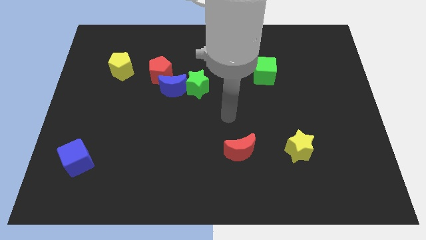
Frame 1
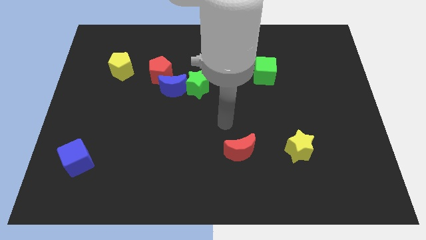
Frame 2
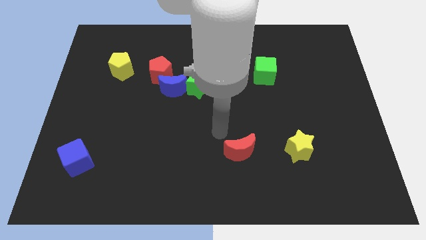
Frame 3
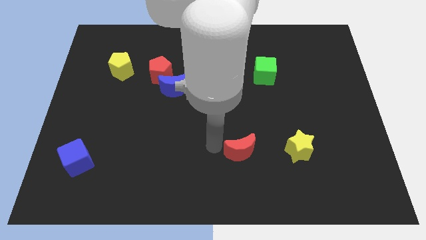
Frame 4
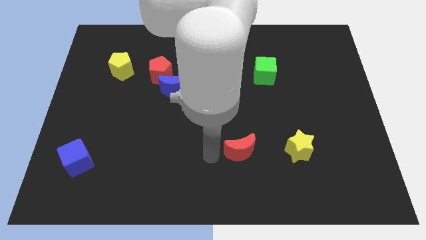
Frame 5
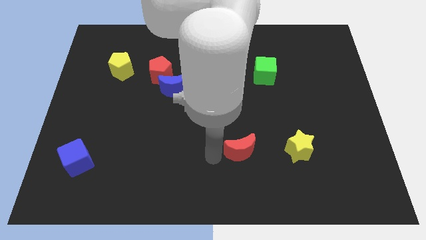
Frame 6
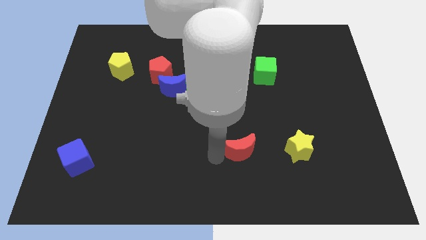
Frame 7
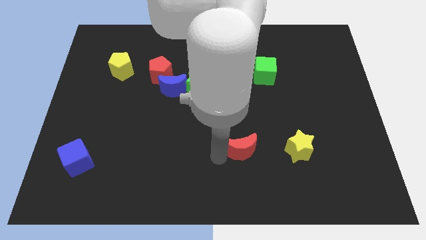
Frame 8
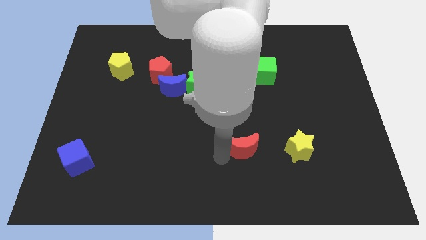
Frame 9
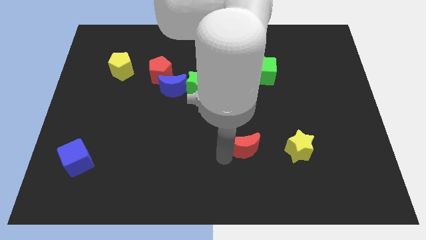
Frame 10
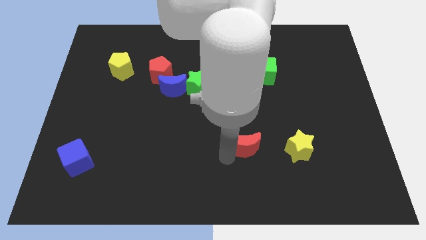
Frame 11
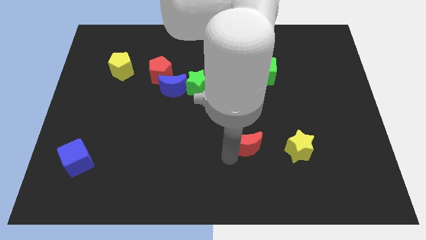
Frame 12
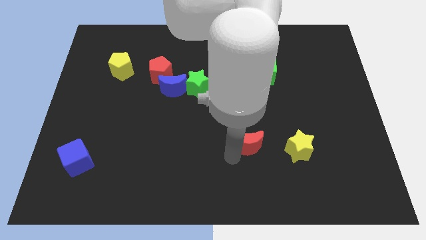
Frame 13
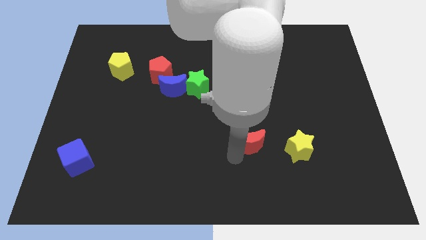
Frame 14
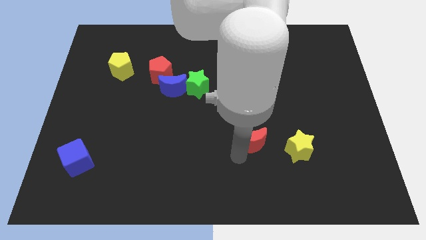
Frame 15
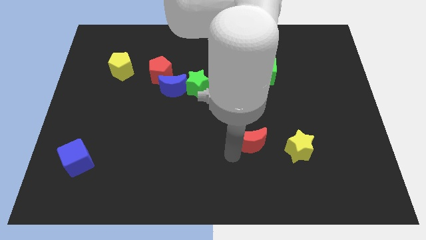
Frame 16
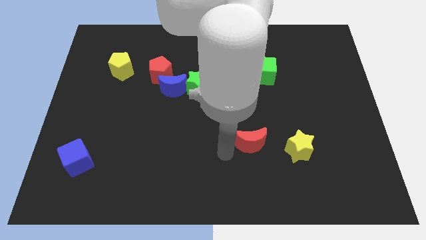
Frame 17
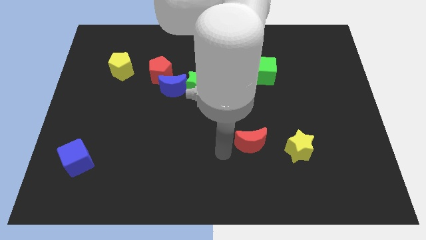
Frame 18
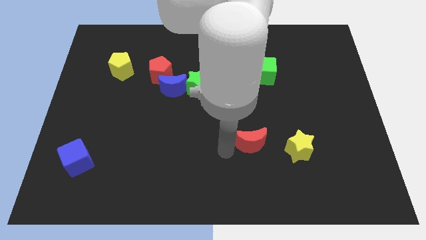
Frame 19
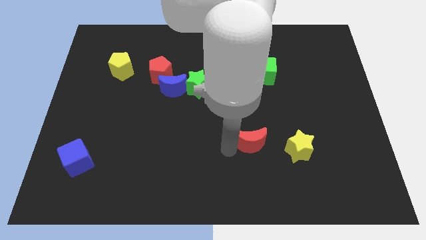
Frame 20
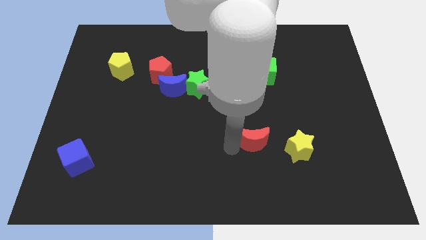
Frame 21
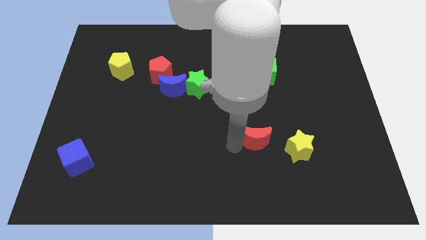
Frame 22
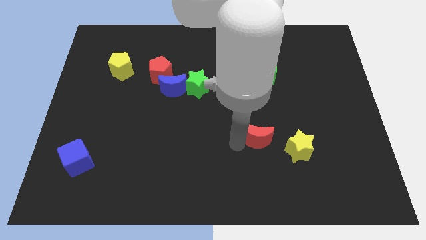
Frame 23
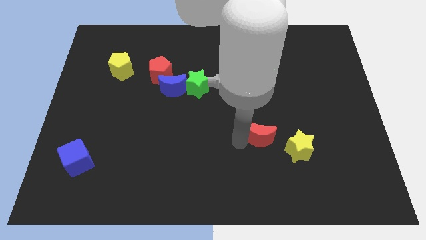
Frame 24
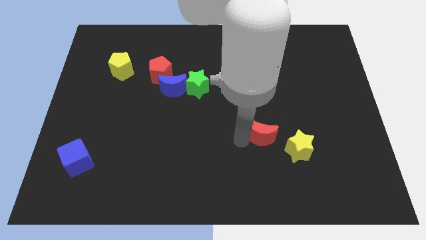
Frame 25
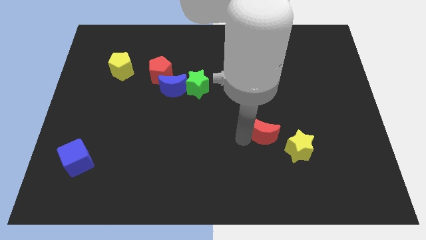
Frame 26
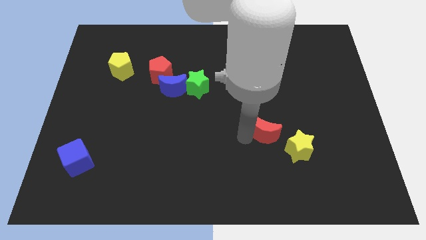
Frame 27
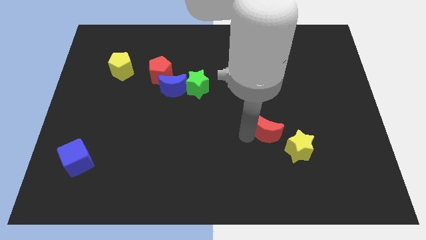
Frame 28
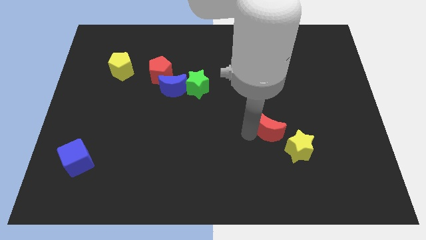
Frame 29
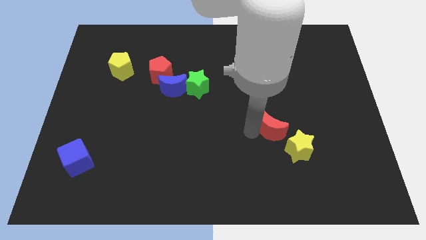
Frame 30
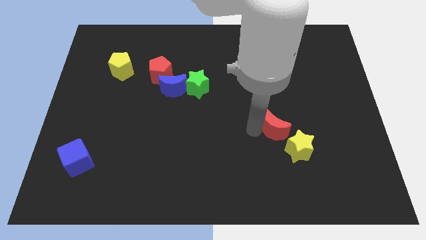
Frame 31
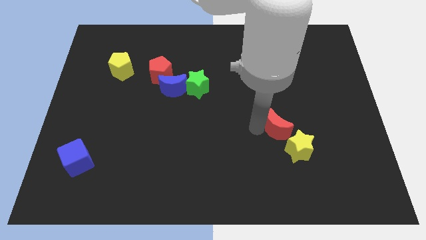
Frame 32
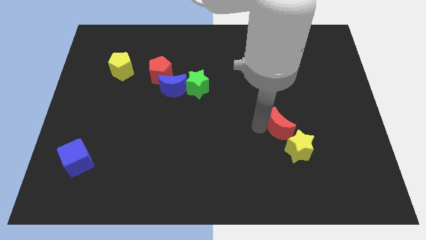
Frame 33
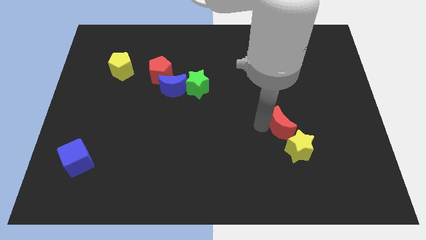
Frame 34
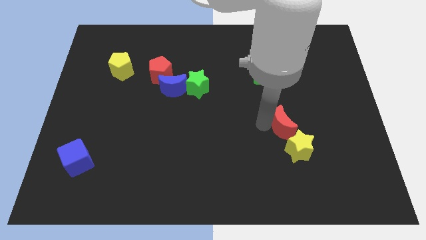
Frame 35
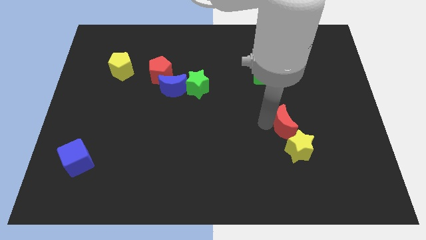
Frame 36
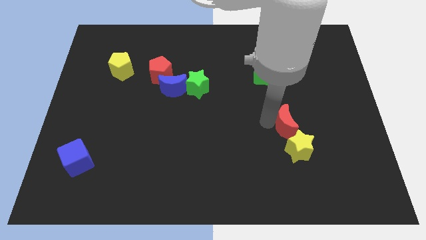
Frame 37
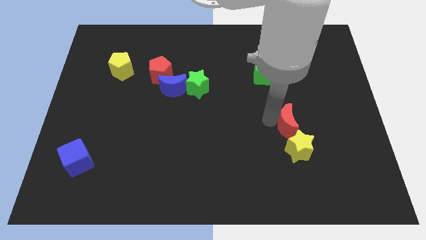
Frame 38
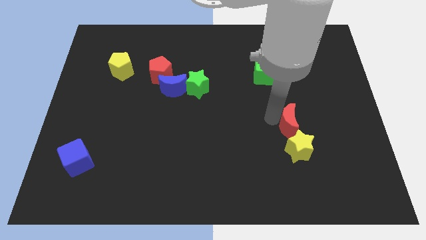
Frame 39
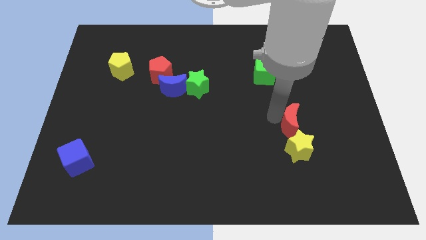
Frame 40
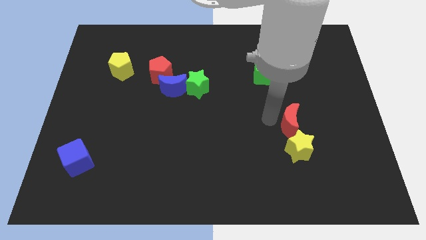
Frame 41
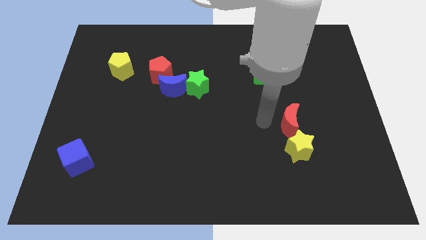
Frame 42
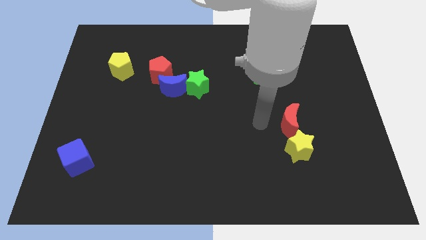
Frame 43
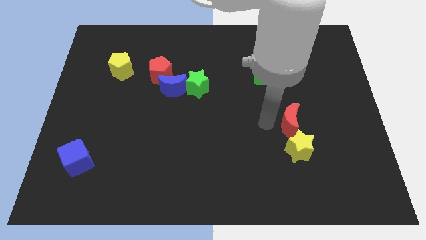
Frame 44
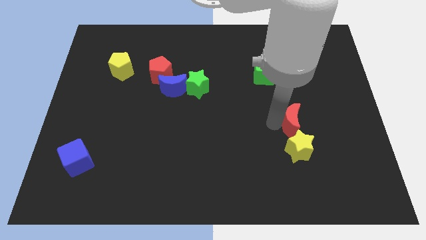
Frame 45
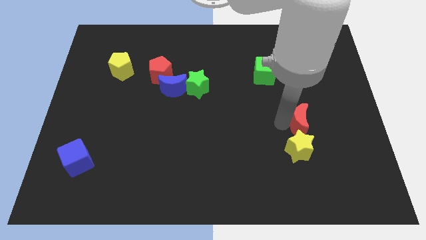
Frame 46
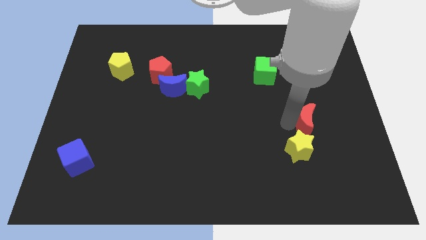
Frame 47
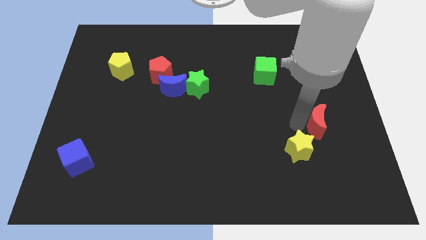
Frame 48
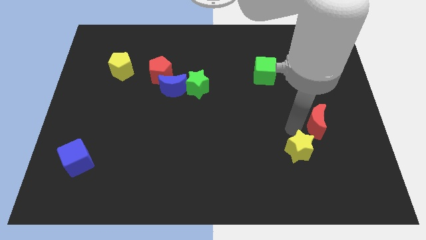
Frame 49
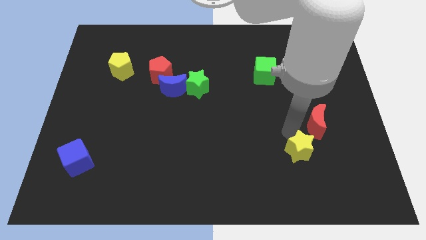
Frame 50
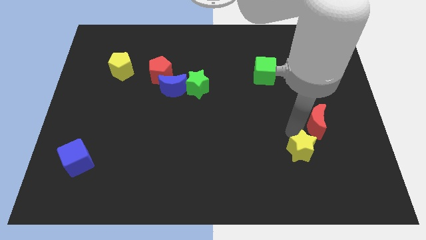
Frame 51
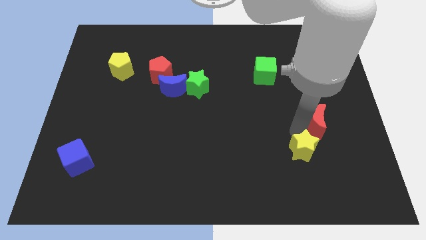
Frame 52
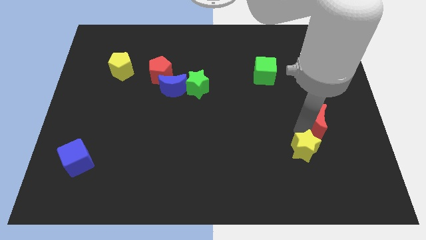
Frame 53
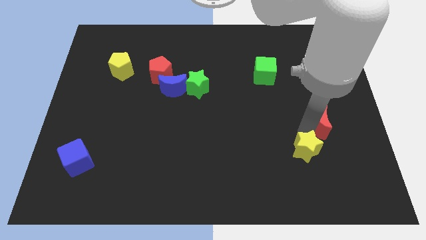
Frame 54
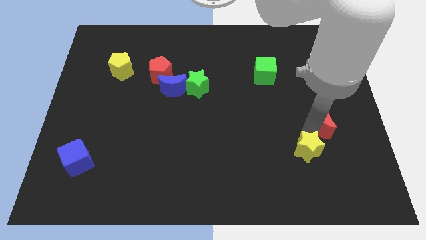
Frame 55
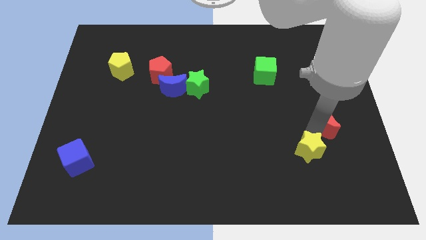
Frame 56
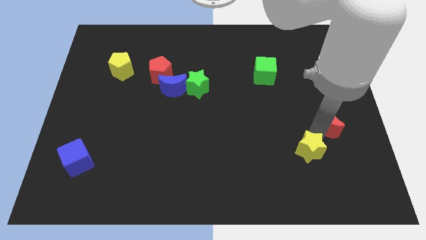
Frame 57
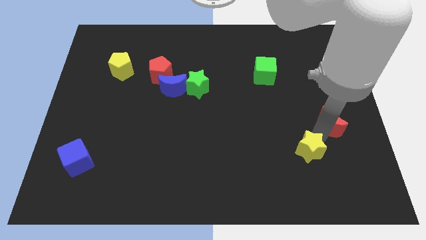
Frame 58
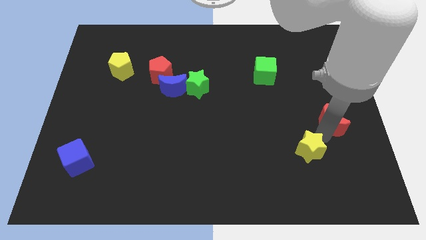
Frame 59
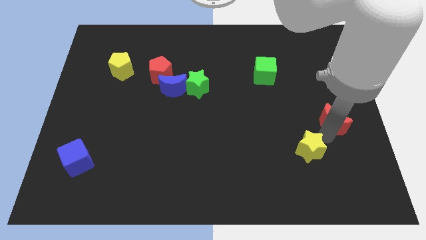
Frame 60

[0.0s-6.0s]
move the red moon to the center right

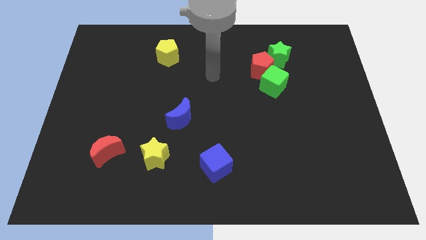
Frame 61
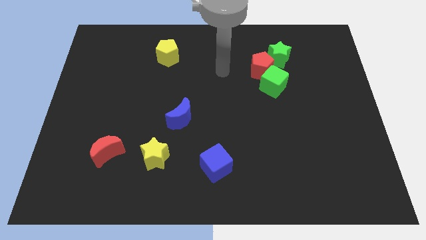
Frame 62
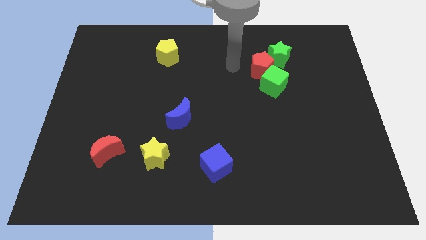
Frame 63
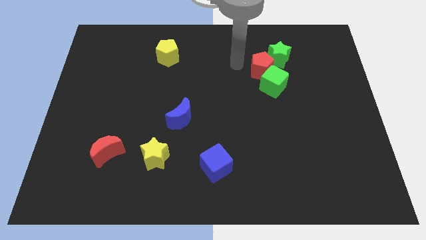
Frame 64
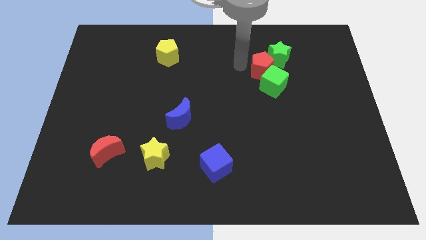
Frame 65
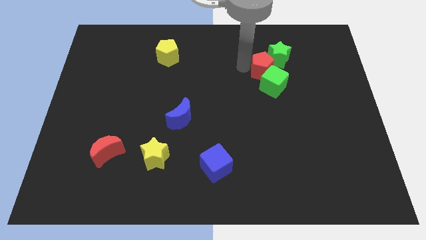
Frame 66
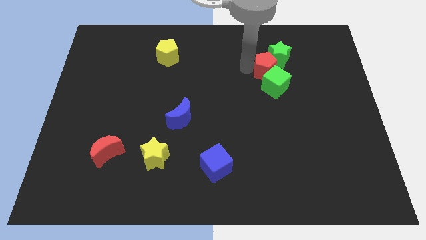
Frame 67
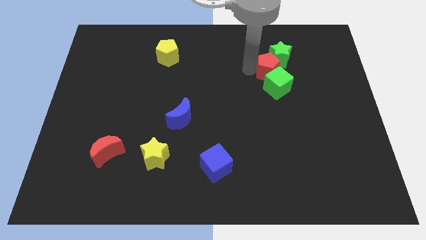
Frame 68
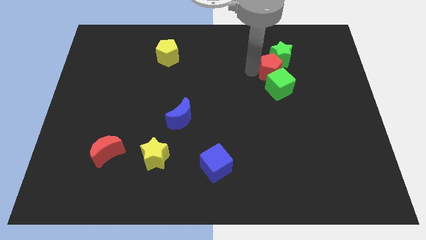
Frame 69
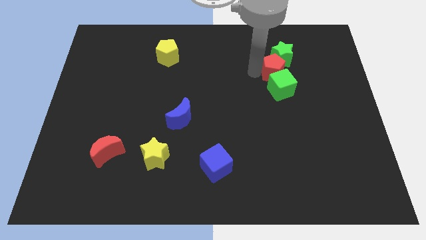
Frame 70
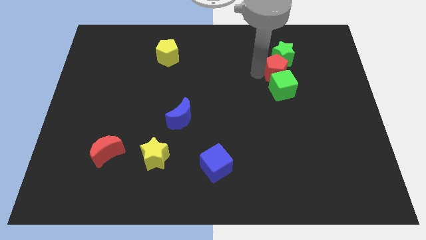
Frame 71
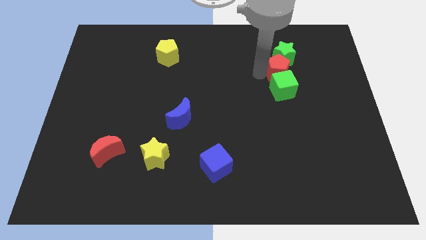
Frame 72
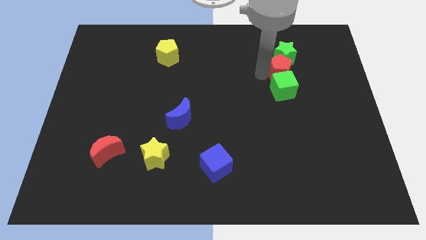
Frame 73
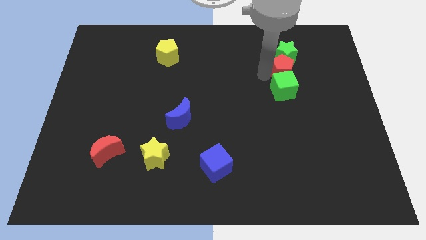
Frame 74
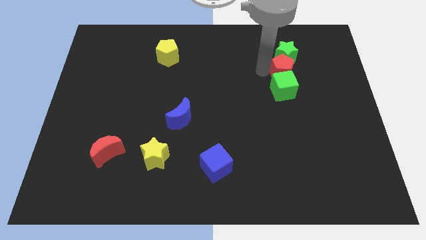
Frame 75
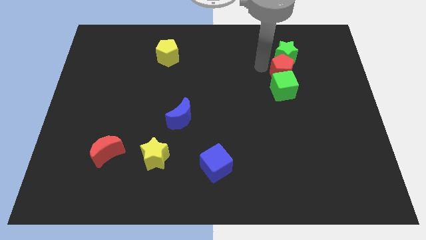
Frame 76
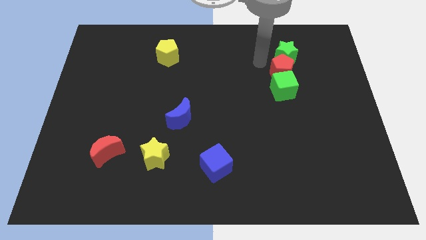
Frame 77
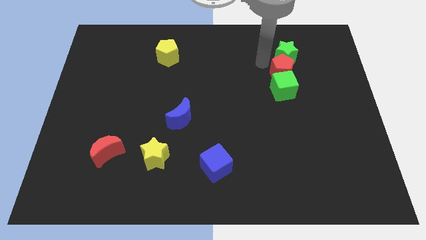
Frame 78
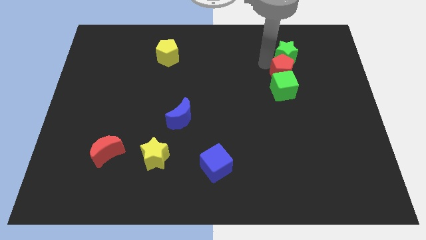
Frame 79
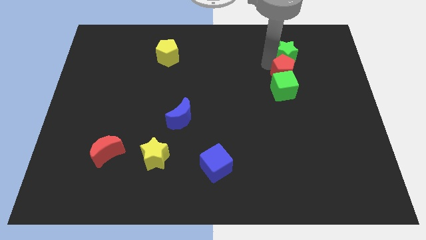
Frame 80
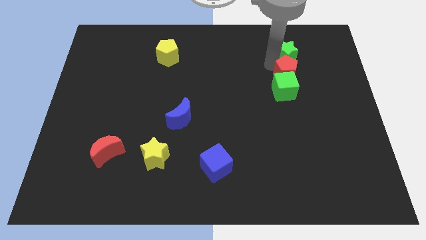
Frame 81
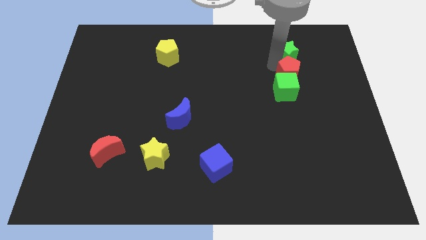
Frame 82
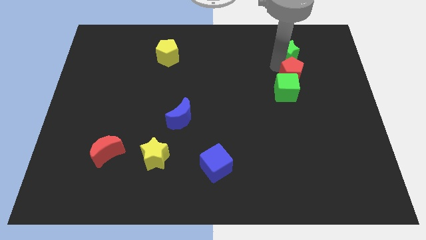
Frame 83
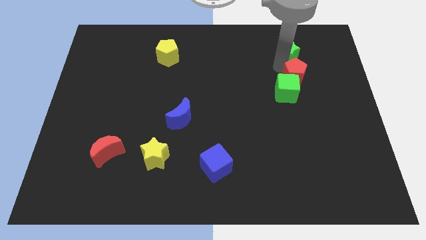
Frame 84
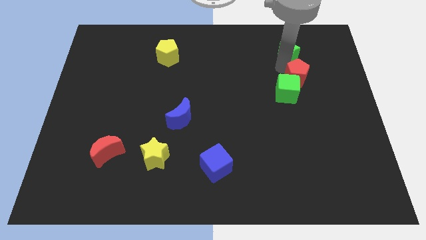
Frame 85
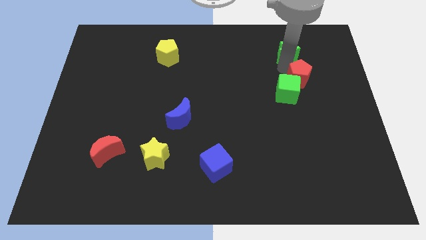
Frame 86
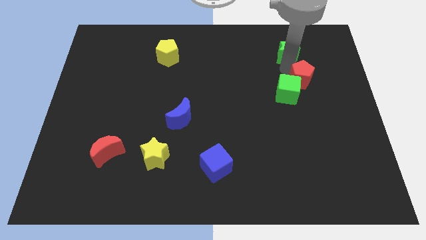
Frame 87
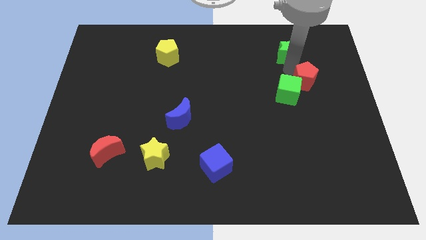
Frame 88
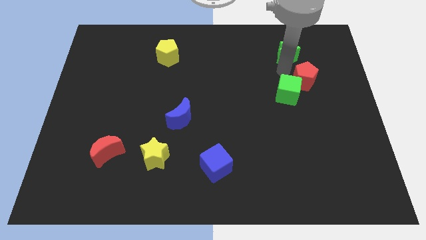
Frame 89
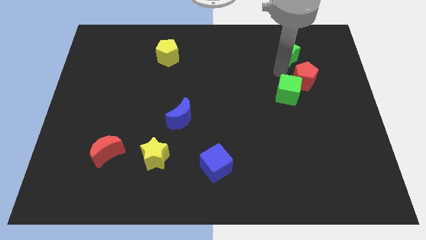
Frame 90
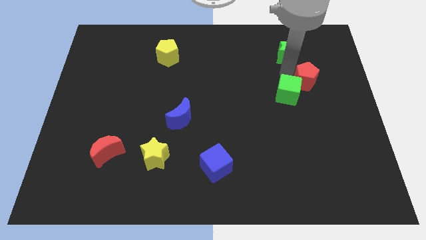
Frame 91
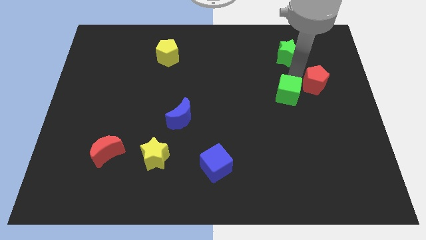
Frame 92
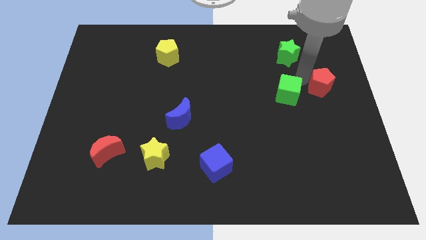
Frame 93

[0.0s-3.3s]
slide the red pentagon to the right side
